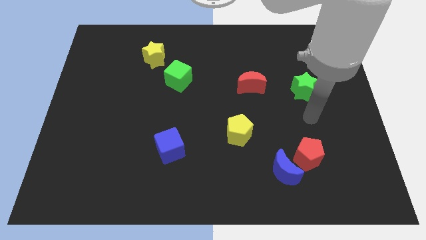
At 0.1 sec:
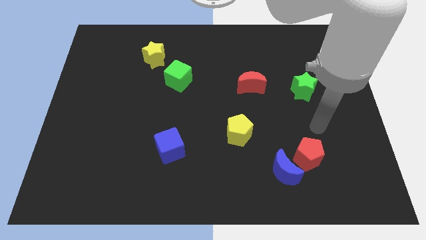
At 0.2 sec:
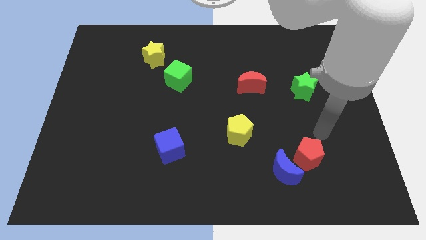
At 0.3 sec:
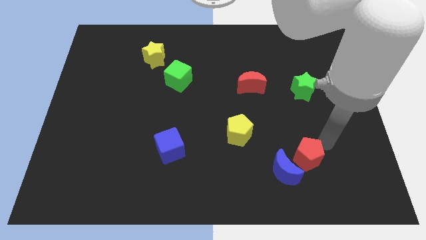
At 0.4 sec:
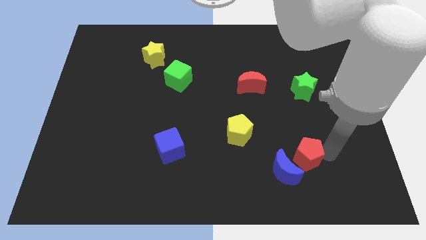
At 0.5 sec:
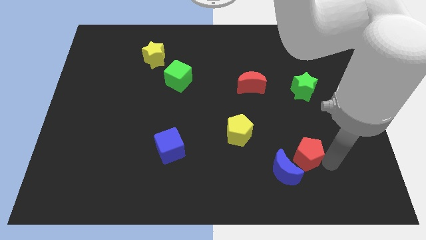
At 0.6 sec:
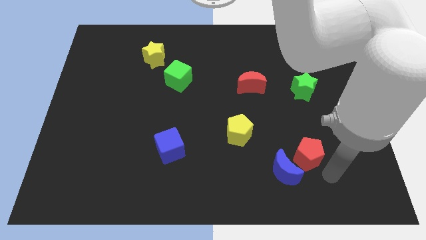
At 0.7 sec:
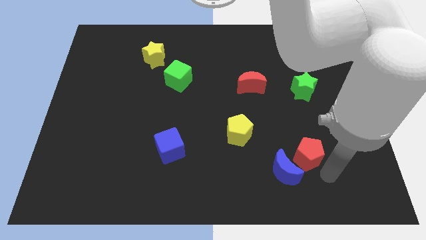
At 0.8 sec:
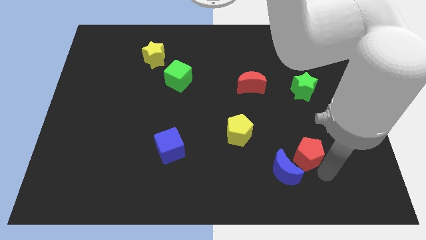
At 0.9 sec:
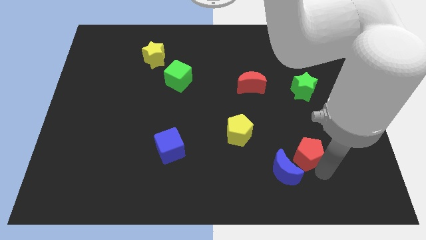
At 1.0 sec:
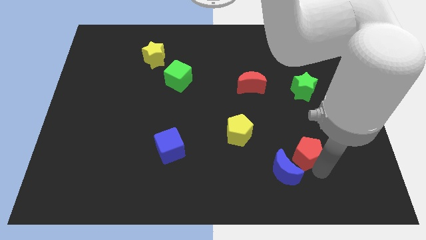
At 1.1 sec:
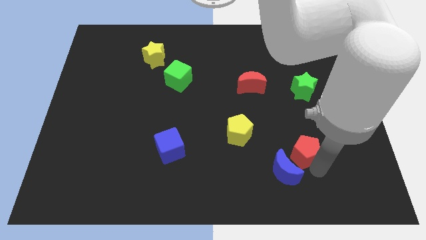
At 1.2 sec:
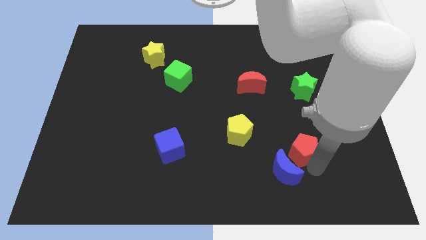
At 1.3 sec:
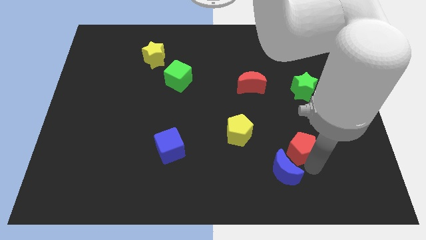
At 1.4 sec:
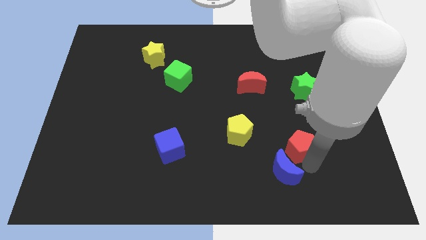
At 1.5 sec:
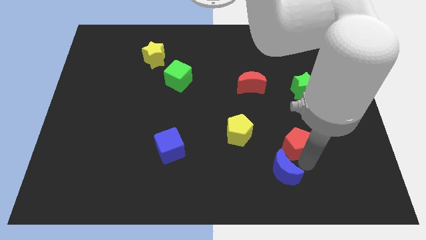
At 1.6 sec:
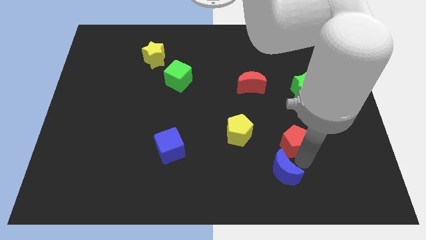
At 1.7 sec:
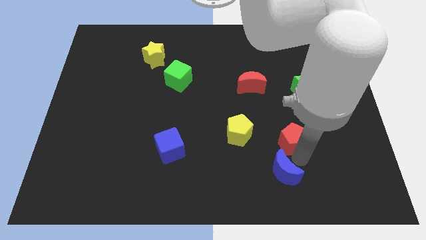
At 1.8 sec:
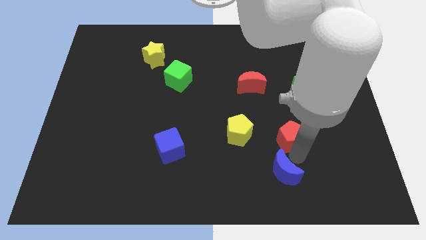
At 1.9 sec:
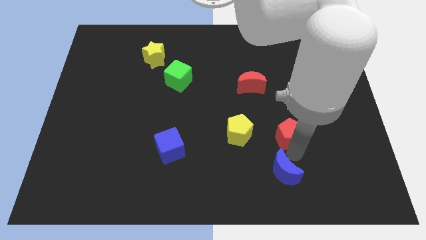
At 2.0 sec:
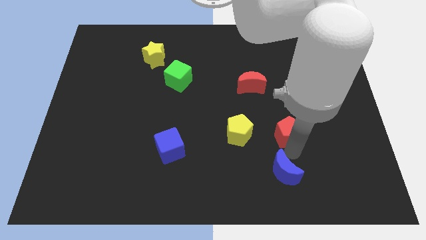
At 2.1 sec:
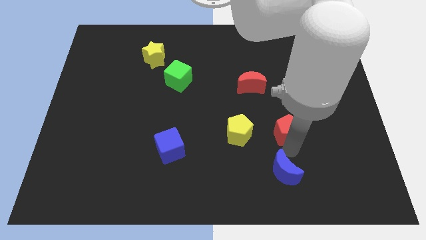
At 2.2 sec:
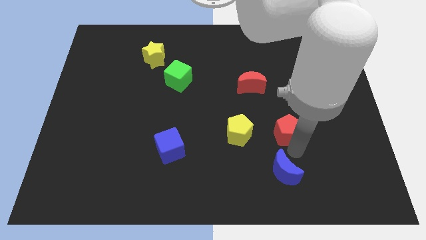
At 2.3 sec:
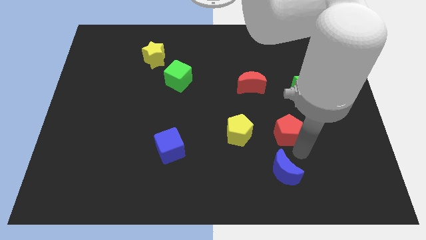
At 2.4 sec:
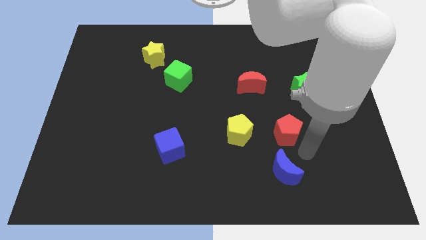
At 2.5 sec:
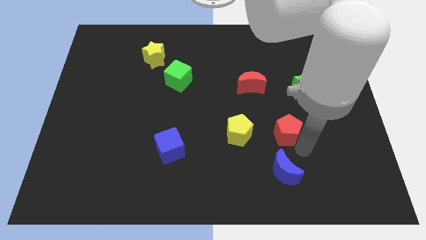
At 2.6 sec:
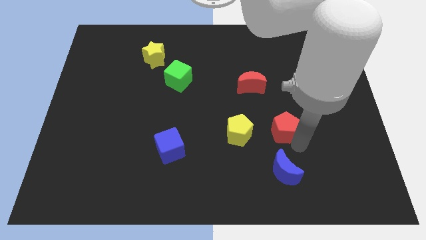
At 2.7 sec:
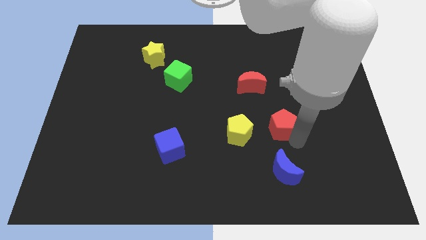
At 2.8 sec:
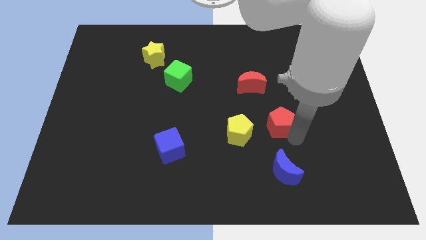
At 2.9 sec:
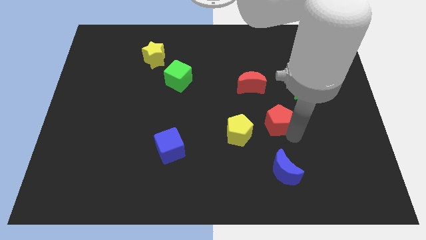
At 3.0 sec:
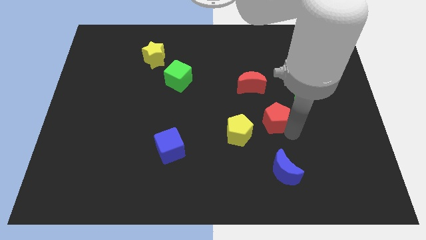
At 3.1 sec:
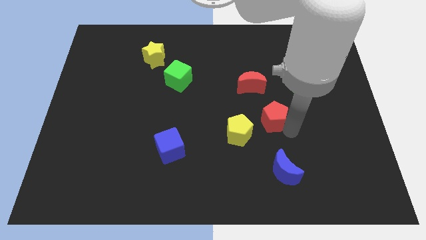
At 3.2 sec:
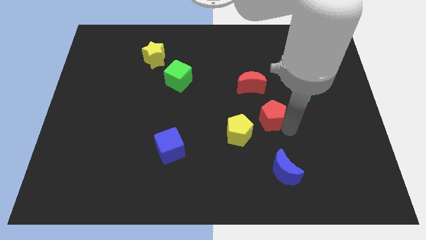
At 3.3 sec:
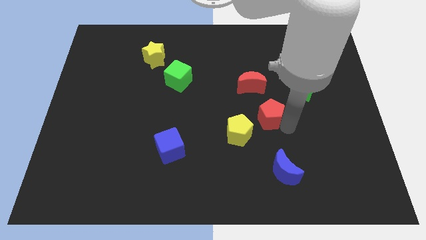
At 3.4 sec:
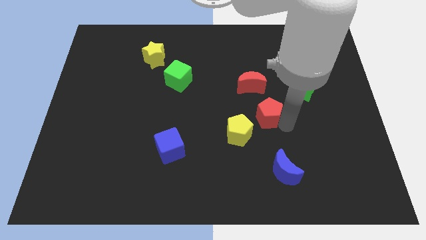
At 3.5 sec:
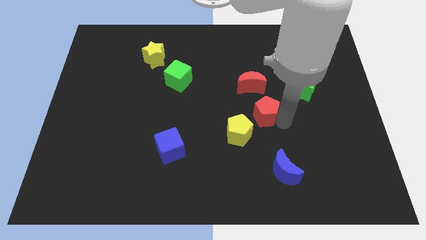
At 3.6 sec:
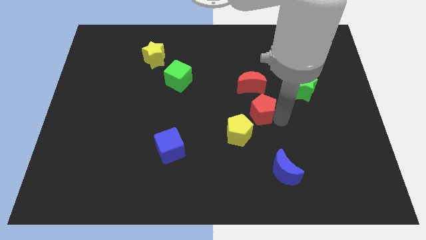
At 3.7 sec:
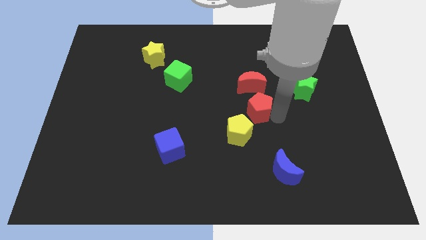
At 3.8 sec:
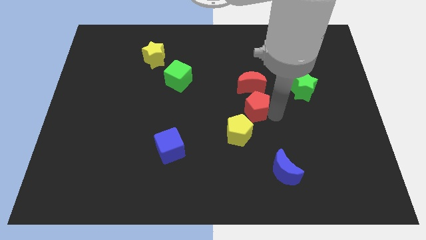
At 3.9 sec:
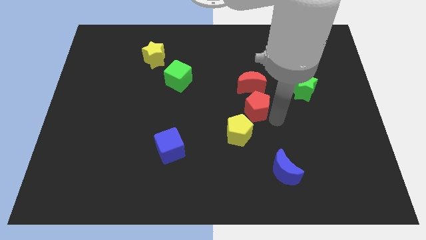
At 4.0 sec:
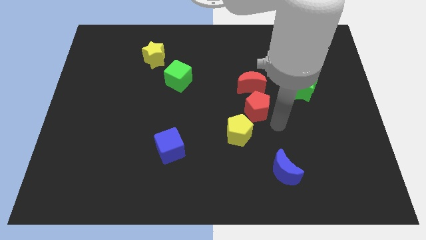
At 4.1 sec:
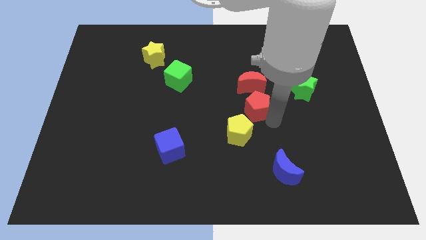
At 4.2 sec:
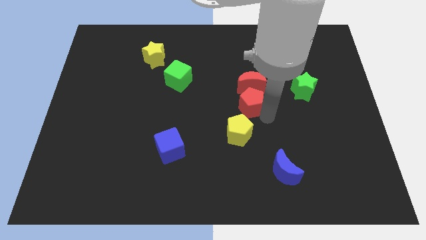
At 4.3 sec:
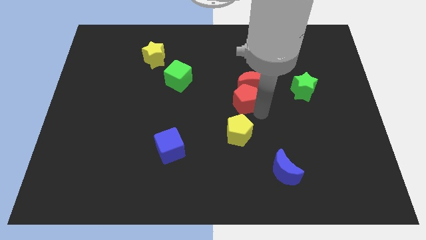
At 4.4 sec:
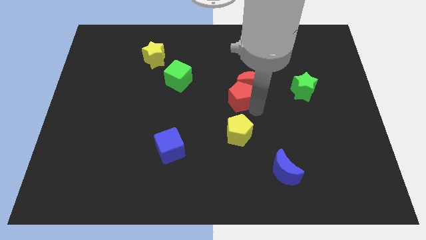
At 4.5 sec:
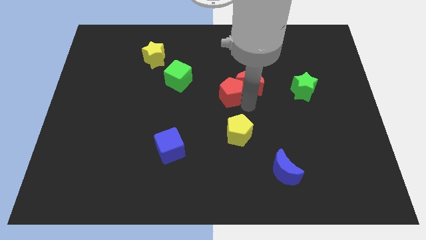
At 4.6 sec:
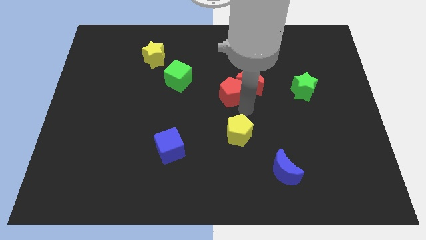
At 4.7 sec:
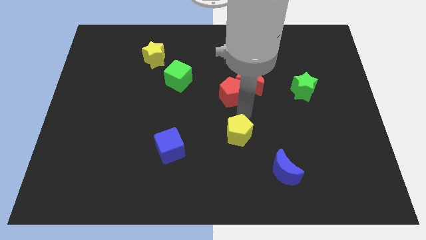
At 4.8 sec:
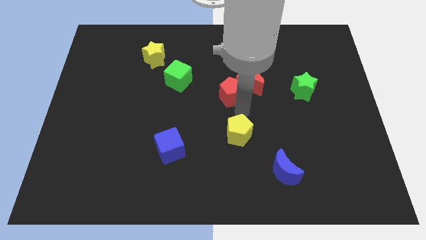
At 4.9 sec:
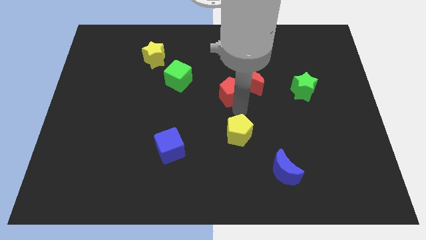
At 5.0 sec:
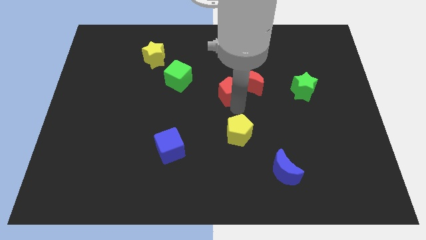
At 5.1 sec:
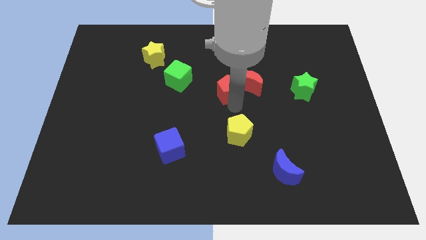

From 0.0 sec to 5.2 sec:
push the red pentagon to the right of the green cube

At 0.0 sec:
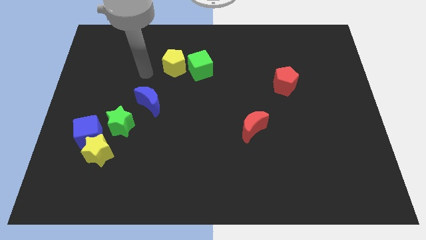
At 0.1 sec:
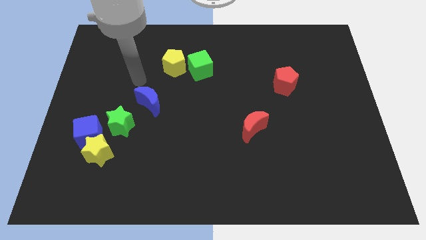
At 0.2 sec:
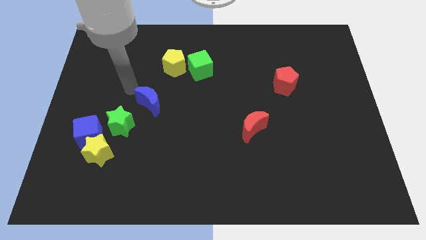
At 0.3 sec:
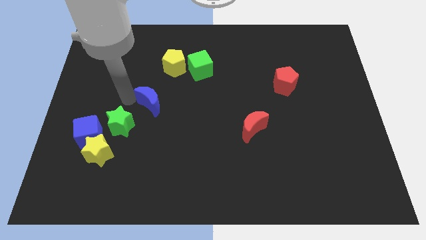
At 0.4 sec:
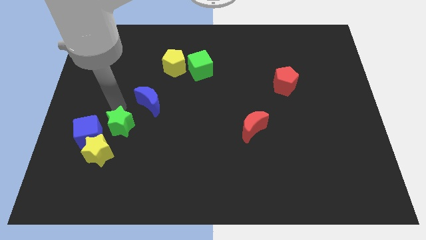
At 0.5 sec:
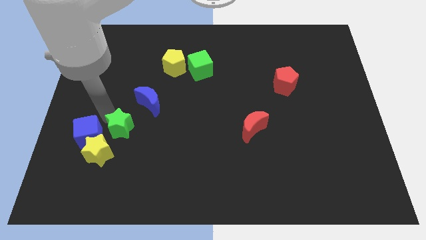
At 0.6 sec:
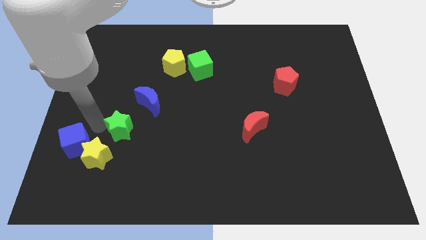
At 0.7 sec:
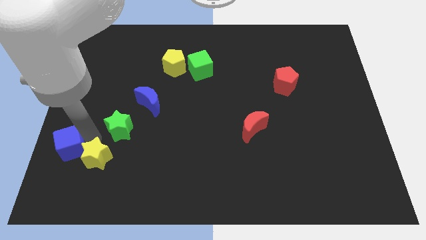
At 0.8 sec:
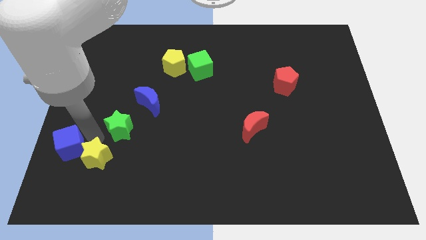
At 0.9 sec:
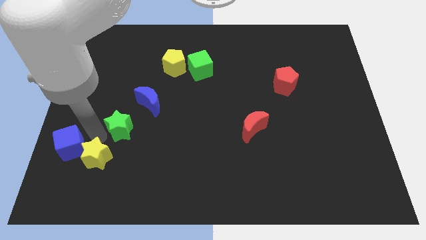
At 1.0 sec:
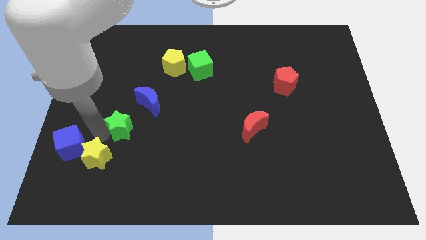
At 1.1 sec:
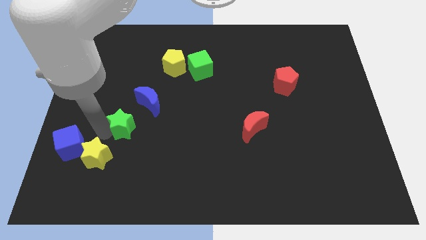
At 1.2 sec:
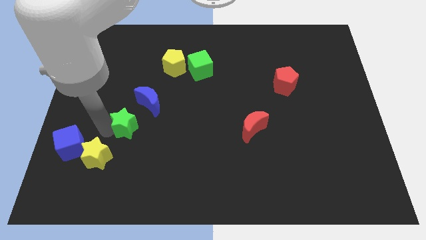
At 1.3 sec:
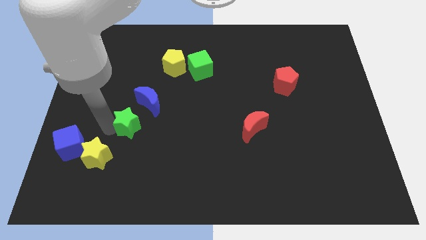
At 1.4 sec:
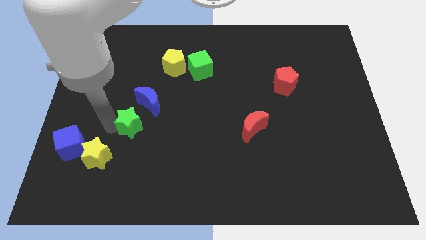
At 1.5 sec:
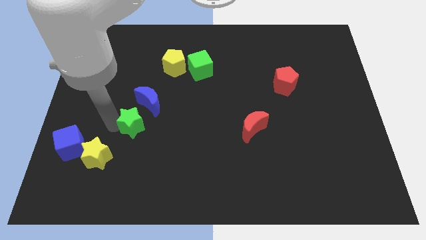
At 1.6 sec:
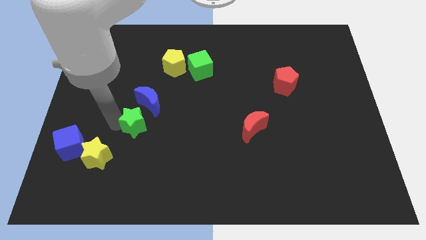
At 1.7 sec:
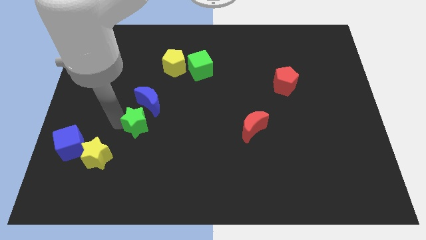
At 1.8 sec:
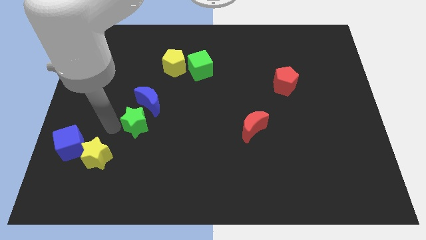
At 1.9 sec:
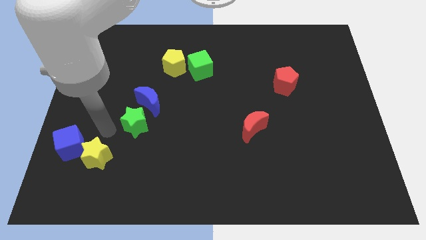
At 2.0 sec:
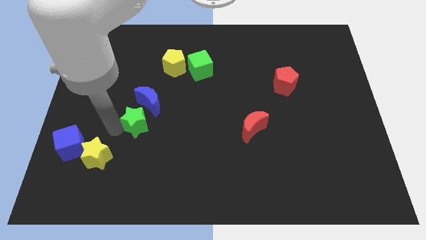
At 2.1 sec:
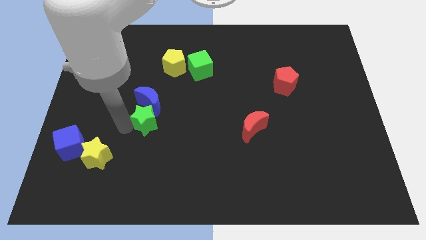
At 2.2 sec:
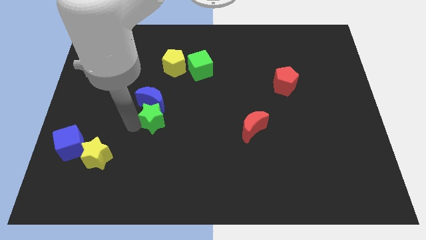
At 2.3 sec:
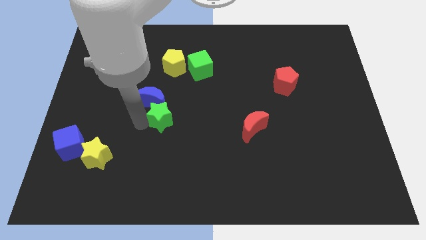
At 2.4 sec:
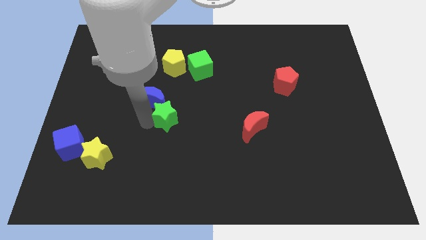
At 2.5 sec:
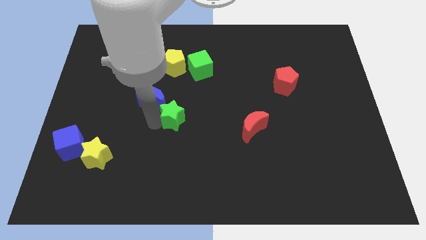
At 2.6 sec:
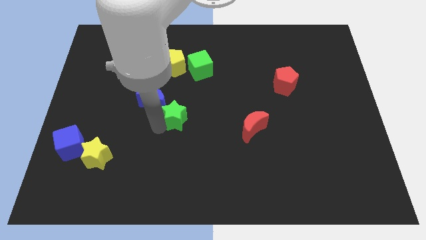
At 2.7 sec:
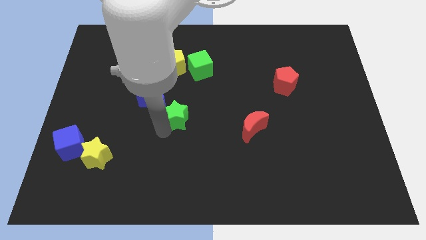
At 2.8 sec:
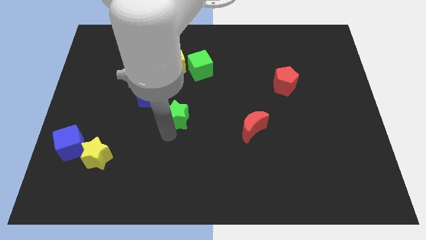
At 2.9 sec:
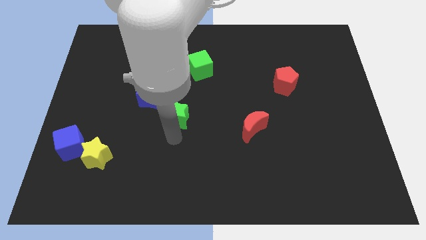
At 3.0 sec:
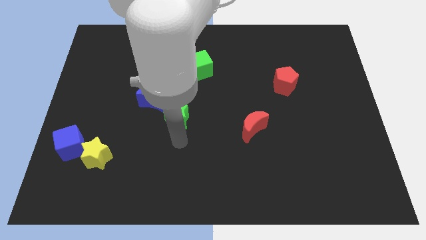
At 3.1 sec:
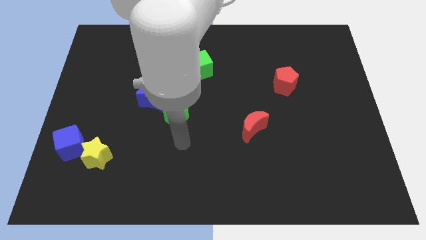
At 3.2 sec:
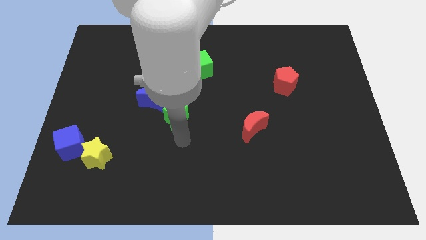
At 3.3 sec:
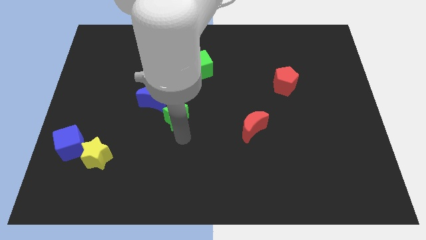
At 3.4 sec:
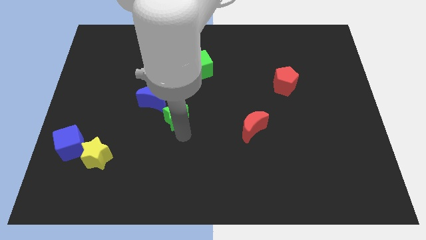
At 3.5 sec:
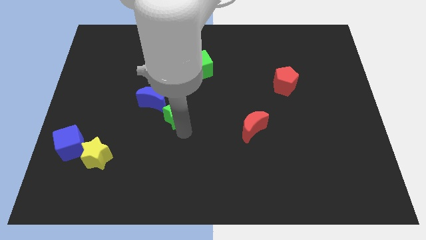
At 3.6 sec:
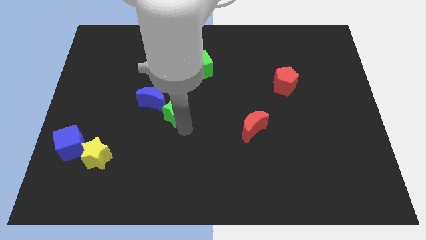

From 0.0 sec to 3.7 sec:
put the green star to the bottom of the yellow pentagon
